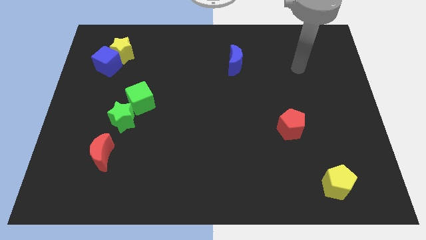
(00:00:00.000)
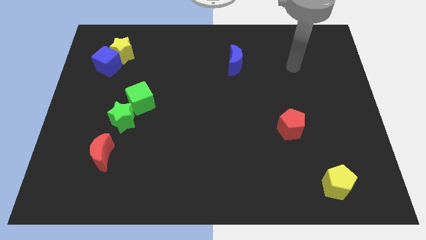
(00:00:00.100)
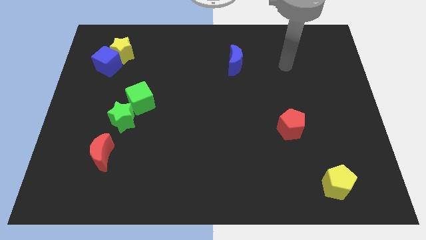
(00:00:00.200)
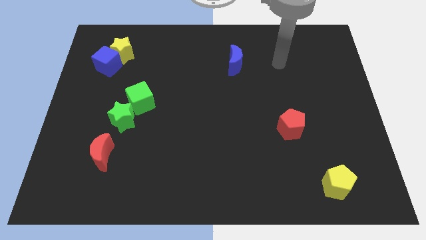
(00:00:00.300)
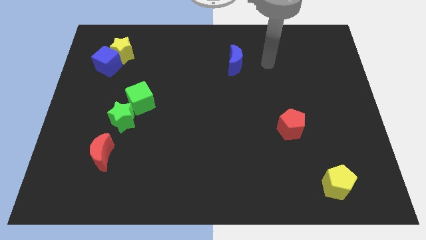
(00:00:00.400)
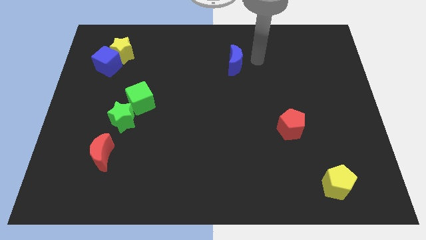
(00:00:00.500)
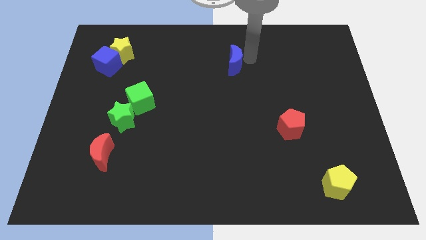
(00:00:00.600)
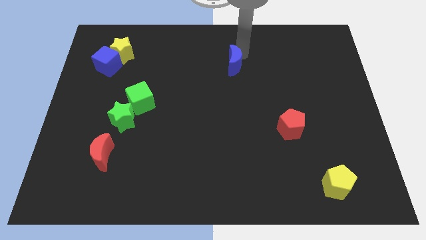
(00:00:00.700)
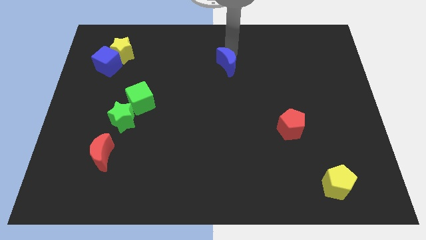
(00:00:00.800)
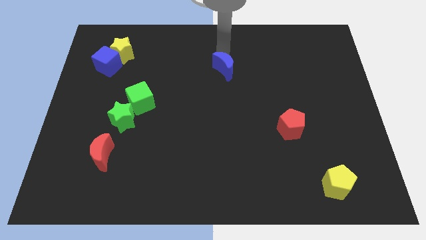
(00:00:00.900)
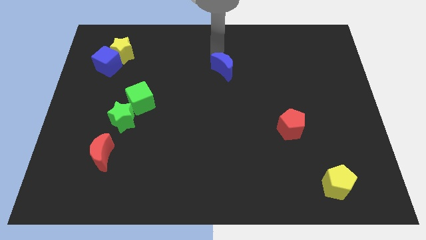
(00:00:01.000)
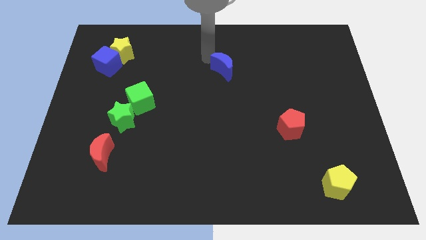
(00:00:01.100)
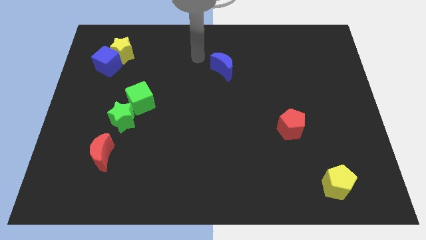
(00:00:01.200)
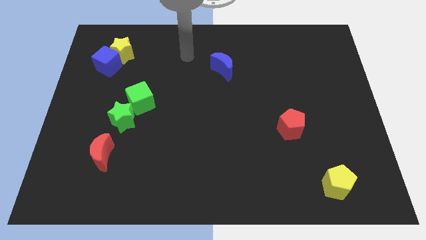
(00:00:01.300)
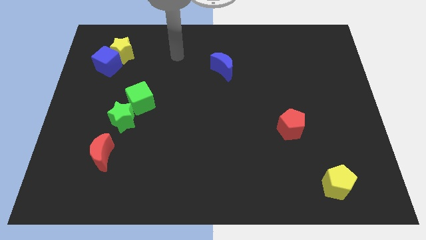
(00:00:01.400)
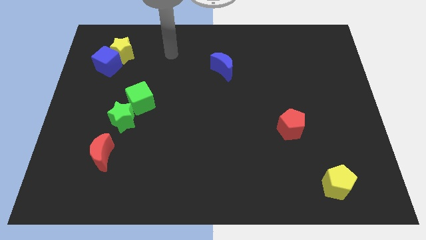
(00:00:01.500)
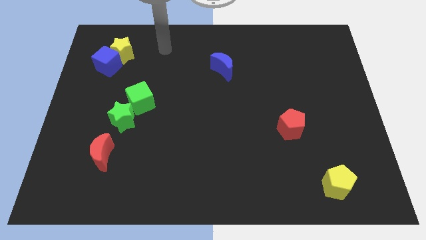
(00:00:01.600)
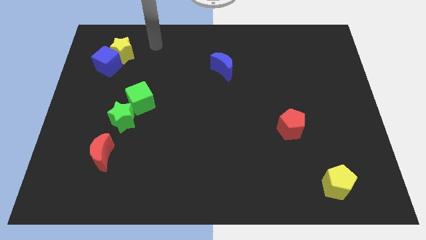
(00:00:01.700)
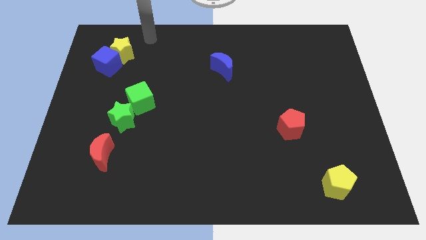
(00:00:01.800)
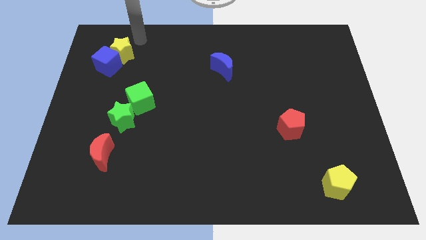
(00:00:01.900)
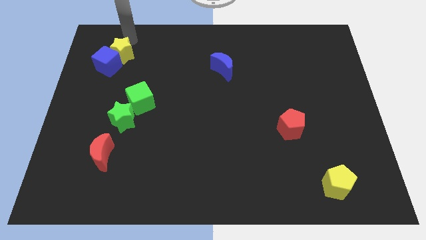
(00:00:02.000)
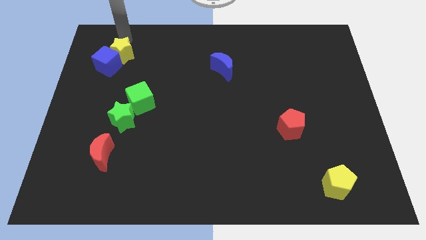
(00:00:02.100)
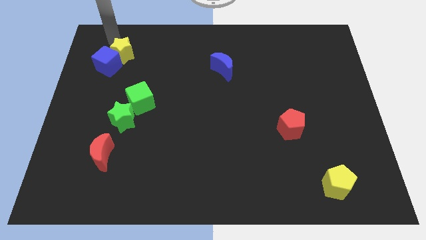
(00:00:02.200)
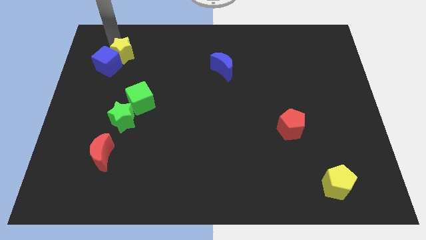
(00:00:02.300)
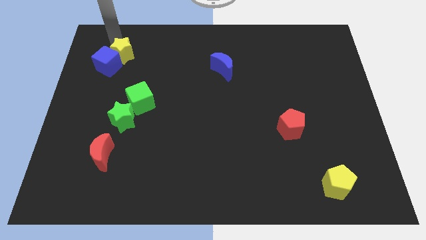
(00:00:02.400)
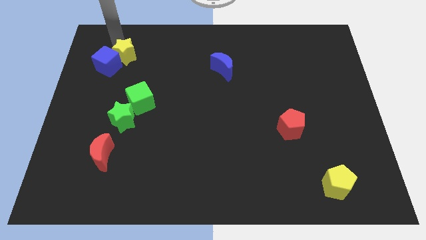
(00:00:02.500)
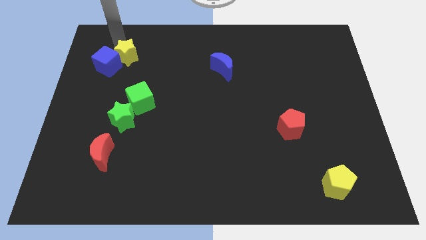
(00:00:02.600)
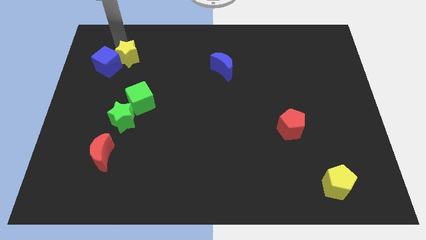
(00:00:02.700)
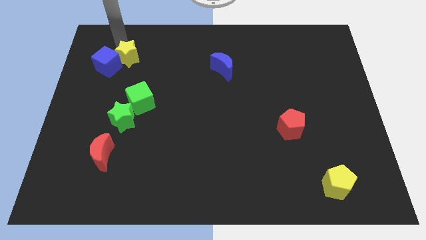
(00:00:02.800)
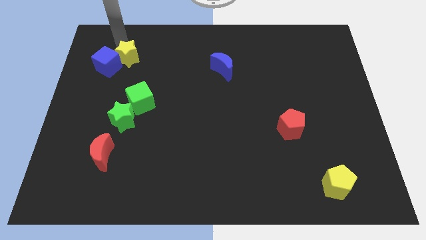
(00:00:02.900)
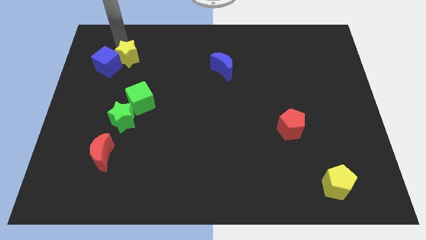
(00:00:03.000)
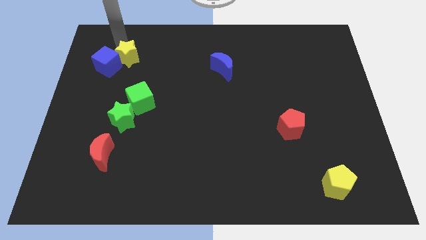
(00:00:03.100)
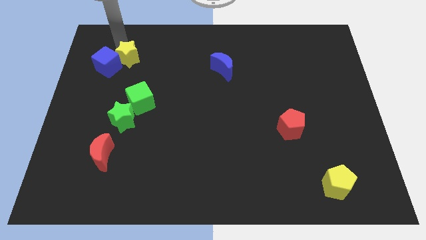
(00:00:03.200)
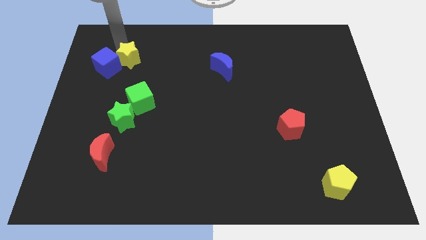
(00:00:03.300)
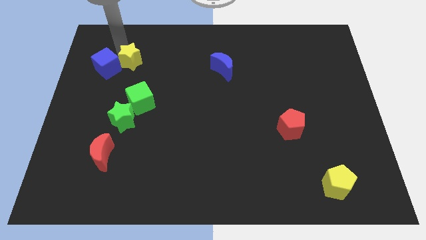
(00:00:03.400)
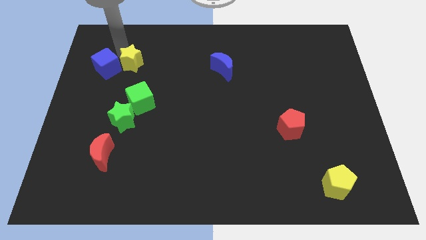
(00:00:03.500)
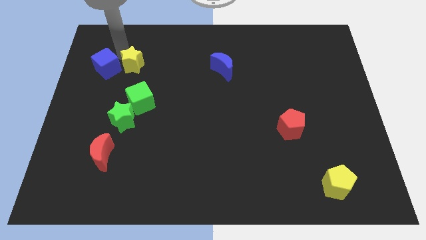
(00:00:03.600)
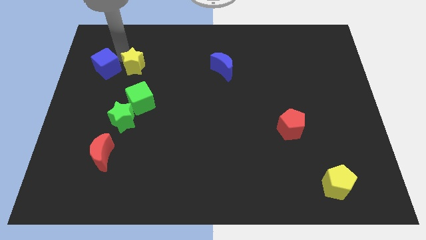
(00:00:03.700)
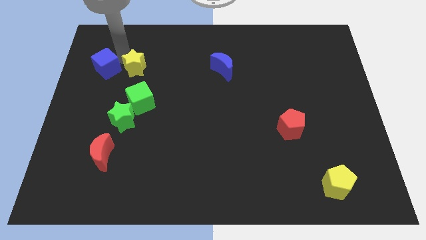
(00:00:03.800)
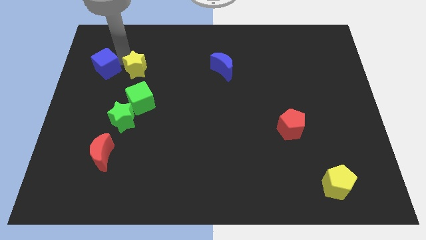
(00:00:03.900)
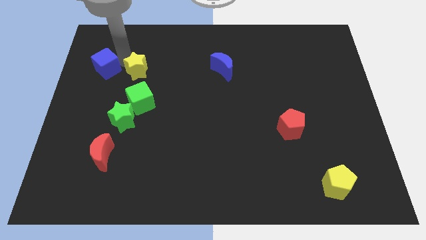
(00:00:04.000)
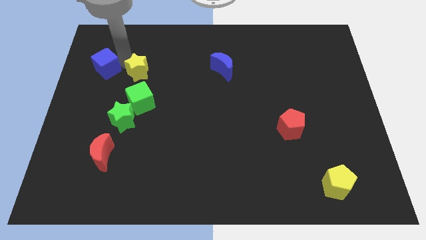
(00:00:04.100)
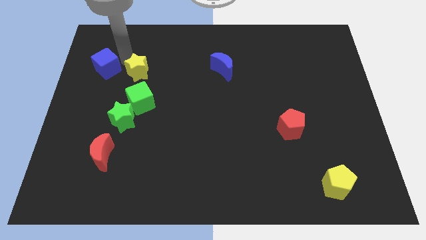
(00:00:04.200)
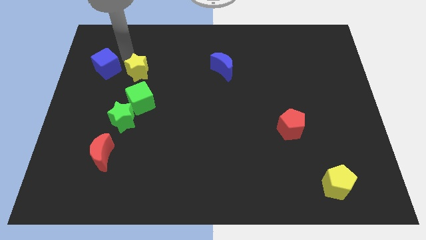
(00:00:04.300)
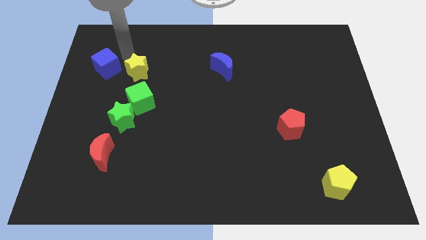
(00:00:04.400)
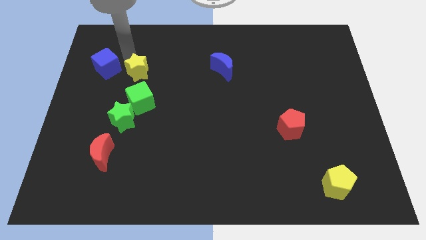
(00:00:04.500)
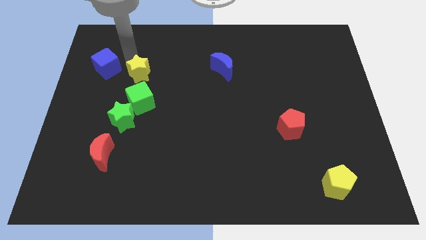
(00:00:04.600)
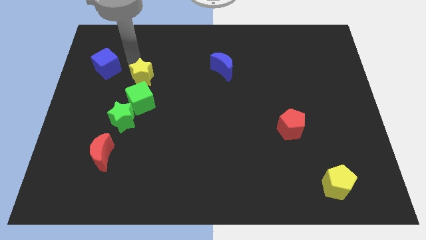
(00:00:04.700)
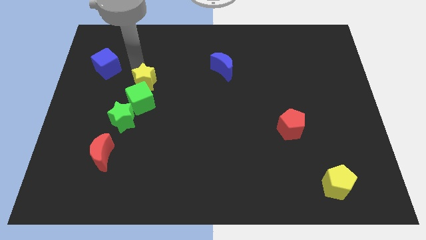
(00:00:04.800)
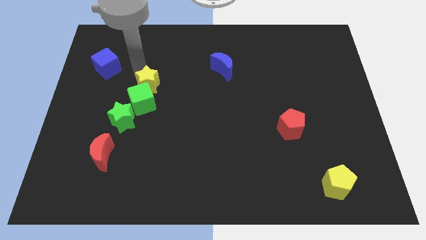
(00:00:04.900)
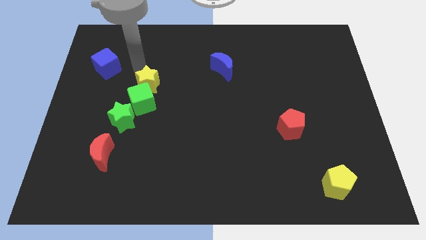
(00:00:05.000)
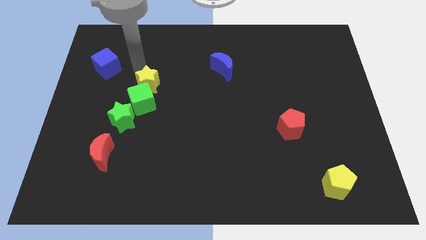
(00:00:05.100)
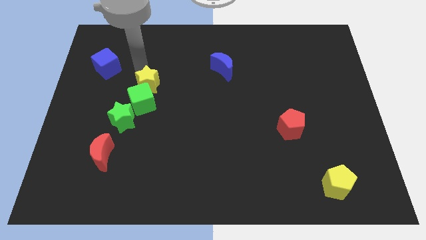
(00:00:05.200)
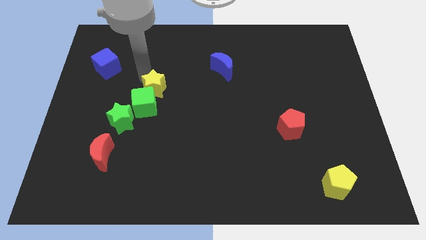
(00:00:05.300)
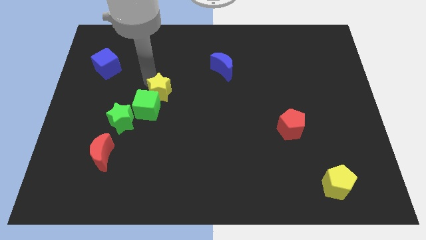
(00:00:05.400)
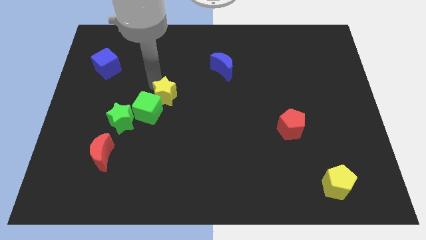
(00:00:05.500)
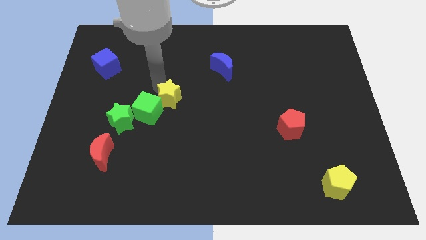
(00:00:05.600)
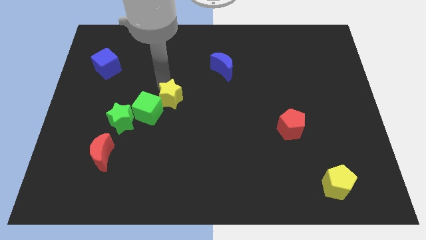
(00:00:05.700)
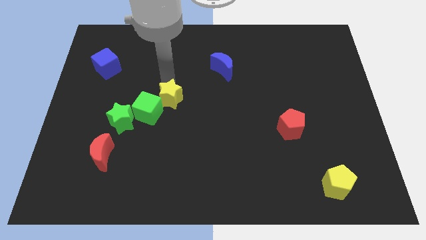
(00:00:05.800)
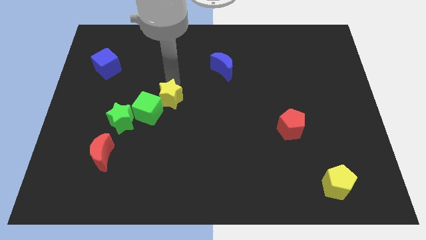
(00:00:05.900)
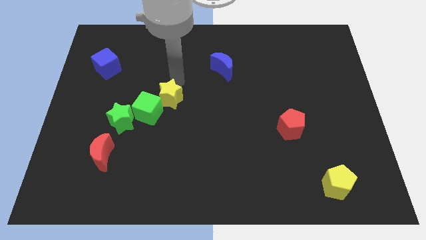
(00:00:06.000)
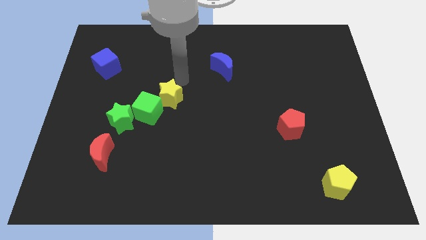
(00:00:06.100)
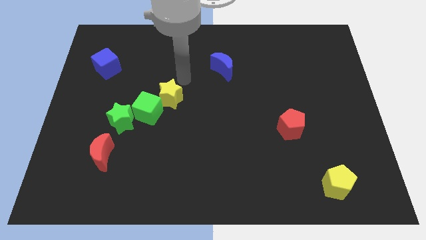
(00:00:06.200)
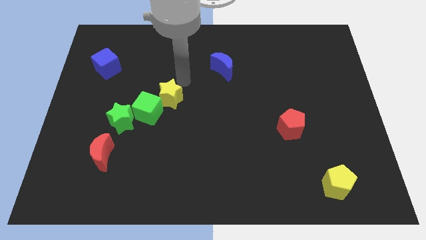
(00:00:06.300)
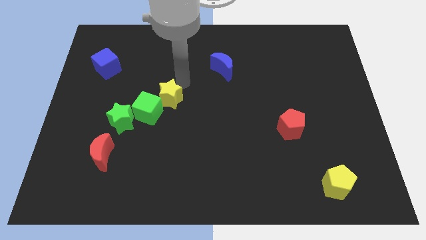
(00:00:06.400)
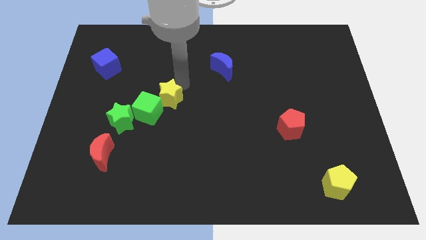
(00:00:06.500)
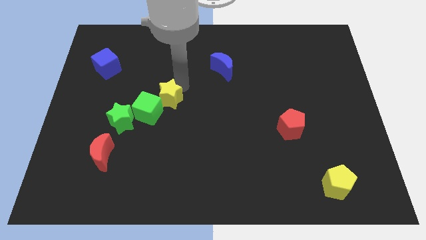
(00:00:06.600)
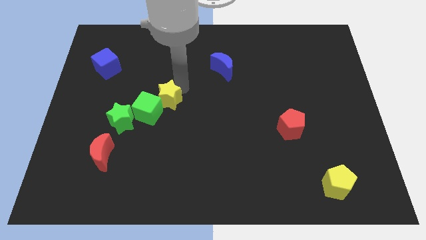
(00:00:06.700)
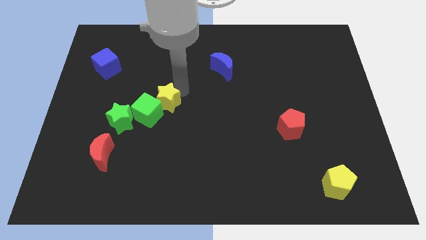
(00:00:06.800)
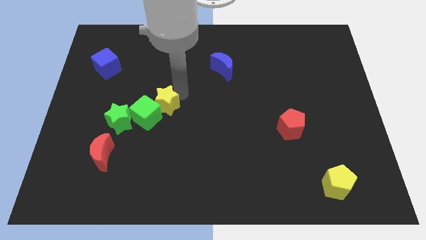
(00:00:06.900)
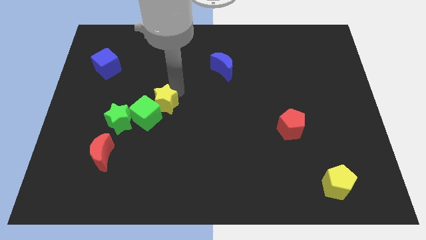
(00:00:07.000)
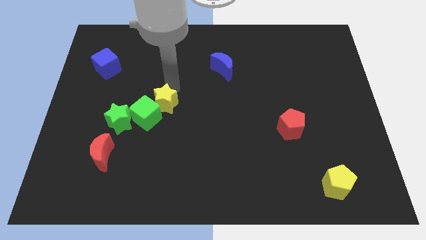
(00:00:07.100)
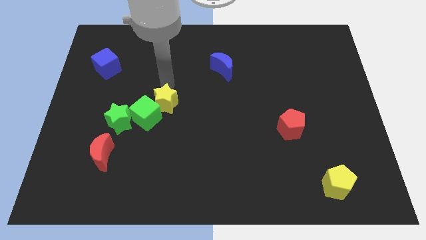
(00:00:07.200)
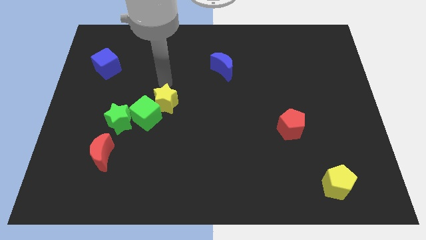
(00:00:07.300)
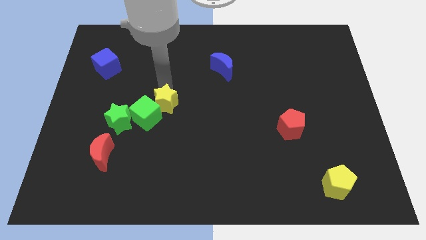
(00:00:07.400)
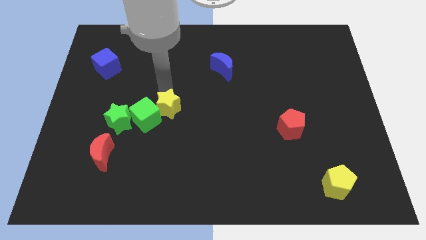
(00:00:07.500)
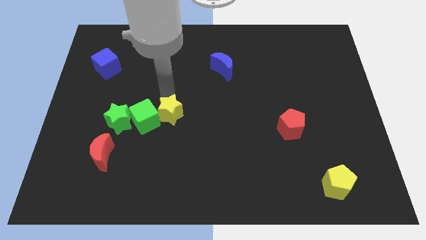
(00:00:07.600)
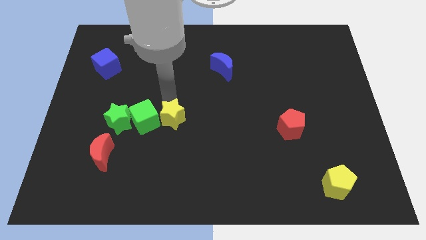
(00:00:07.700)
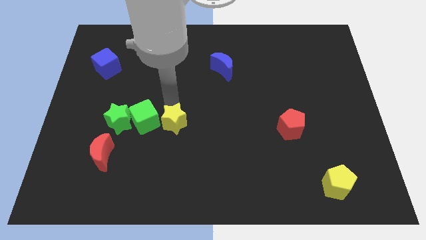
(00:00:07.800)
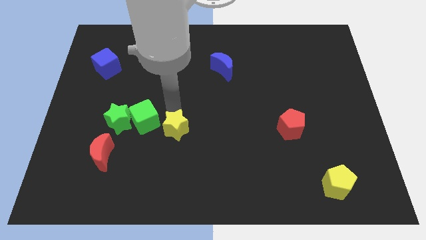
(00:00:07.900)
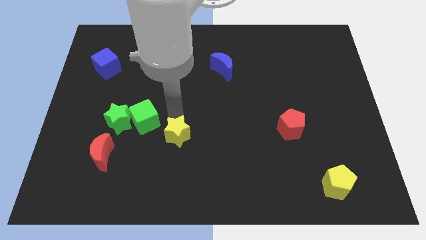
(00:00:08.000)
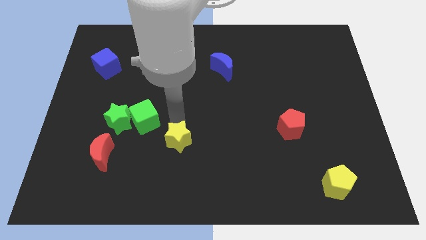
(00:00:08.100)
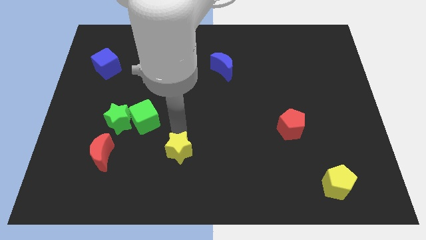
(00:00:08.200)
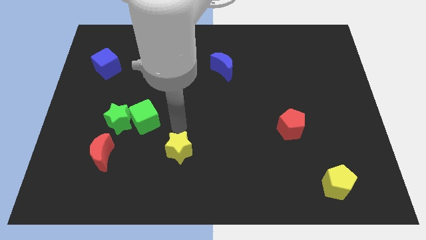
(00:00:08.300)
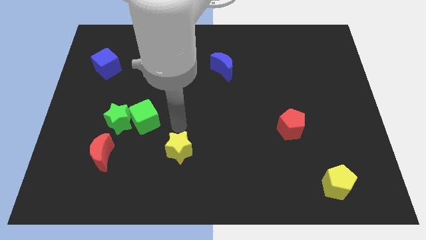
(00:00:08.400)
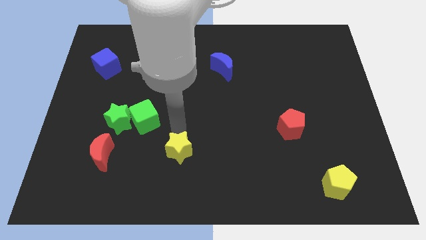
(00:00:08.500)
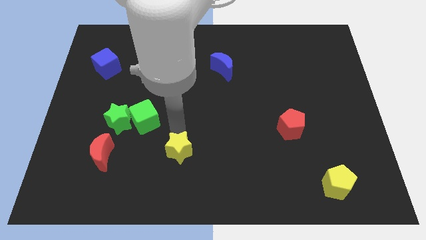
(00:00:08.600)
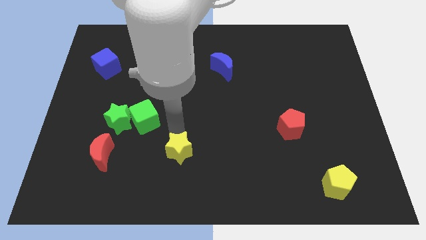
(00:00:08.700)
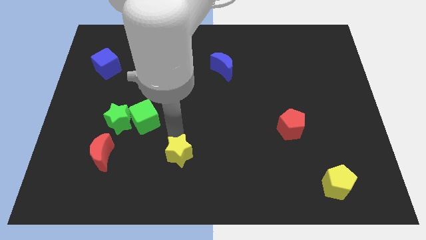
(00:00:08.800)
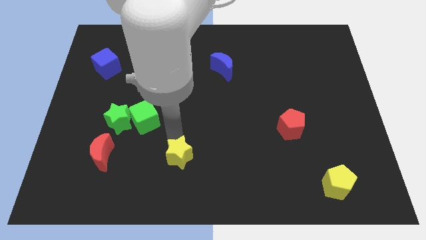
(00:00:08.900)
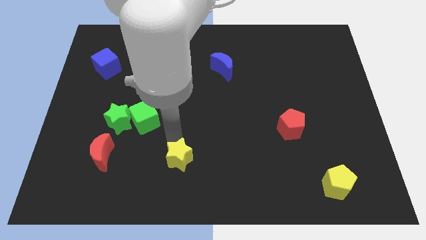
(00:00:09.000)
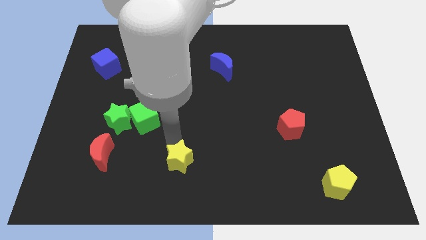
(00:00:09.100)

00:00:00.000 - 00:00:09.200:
move the yellow star to the bottom
